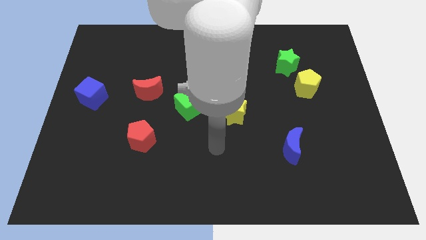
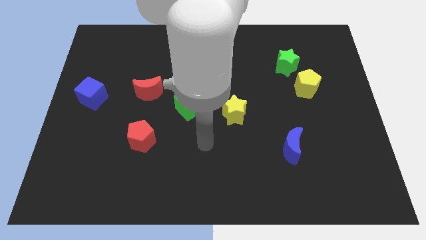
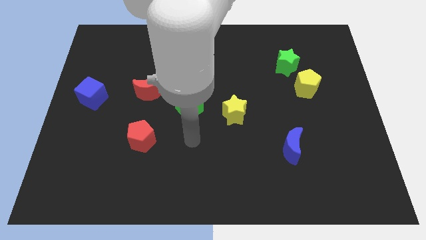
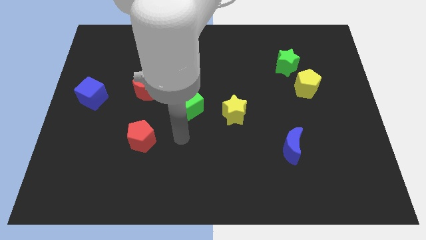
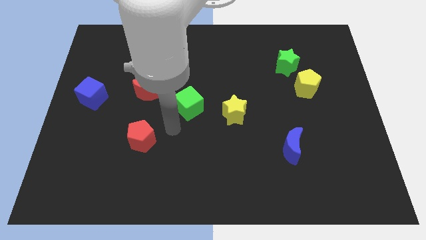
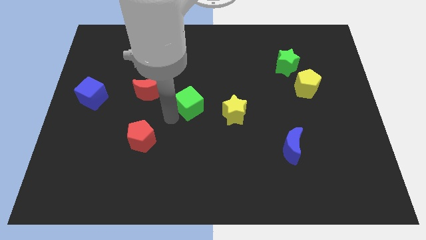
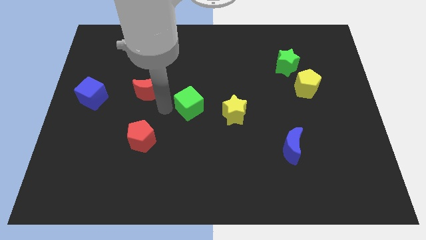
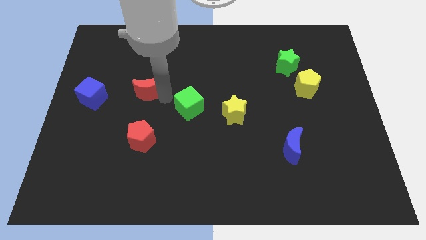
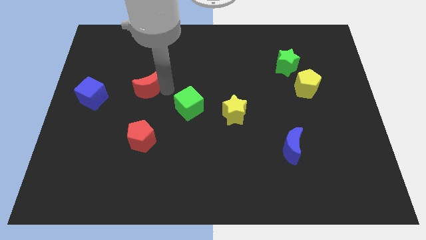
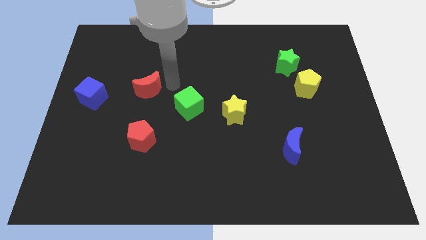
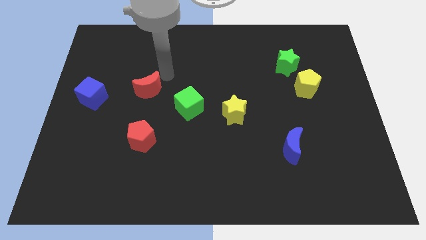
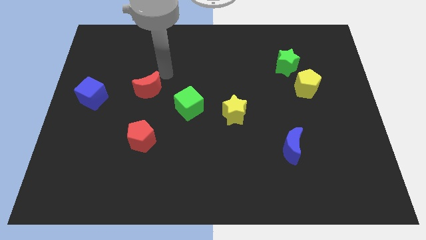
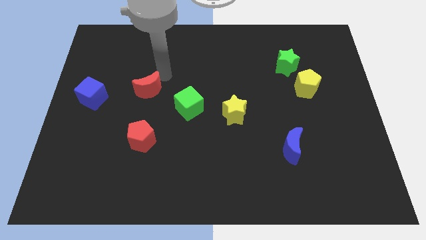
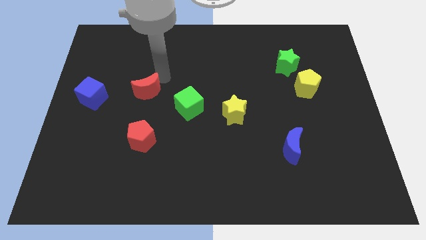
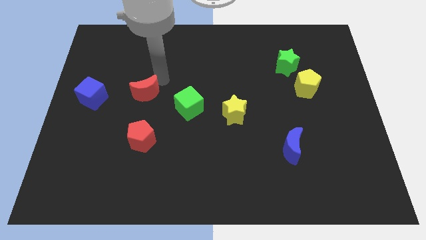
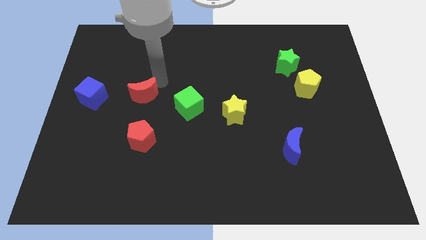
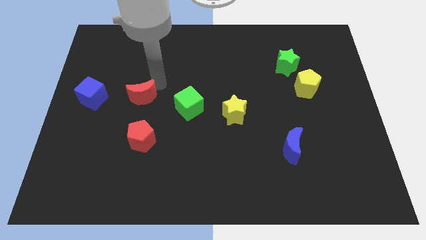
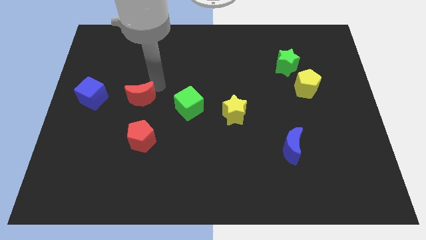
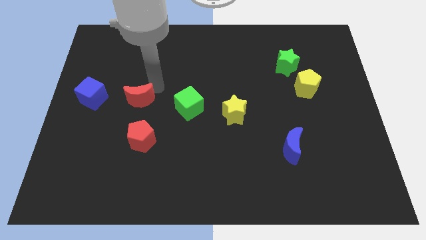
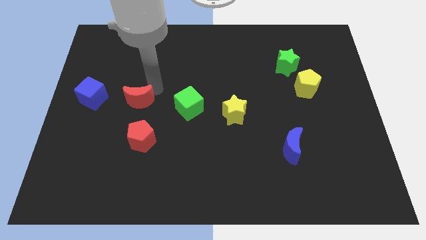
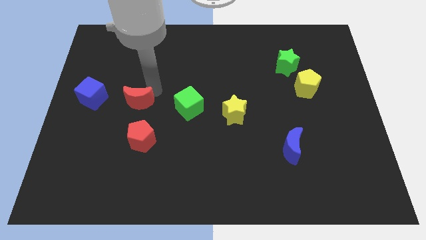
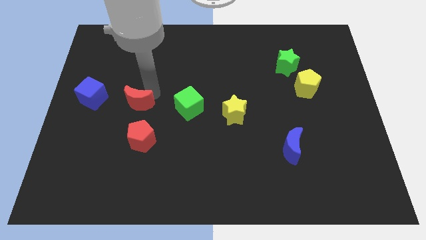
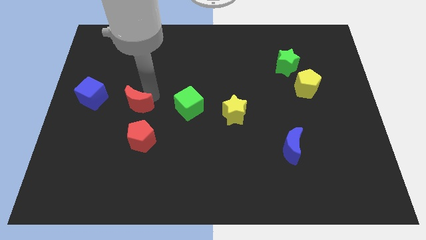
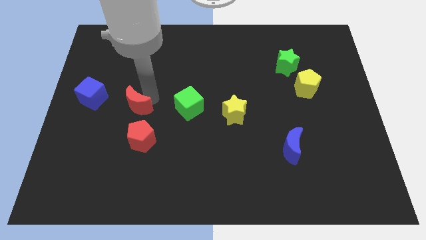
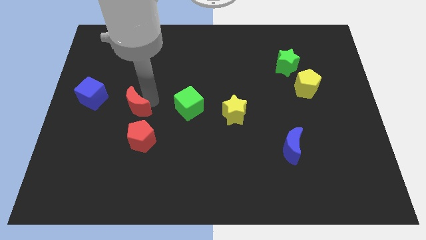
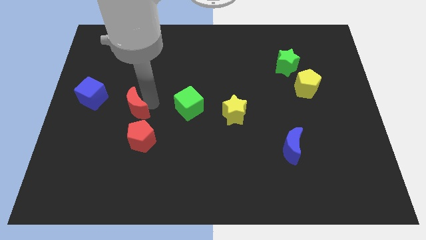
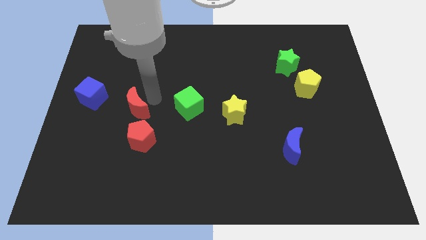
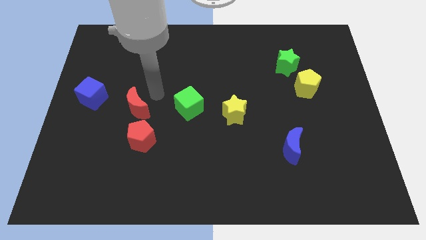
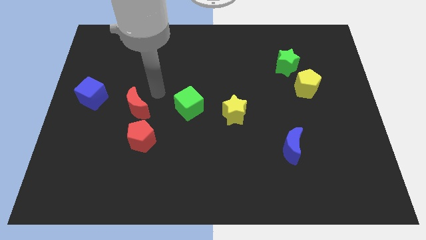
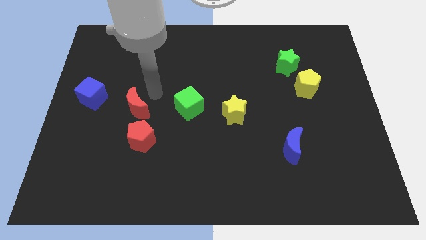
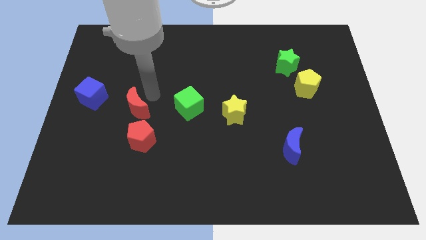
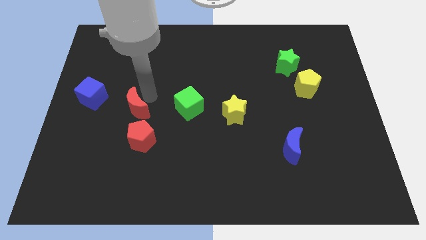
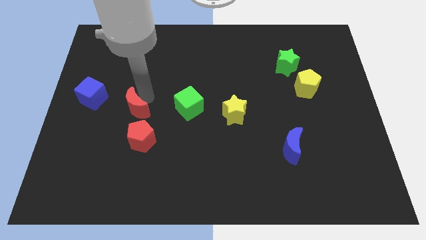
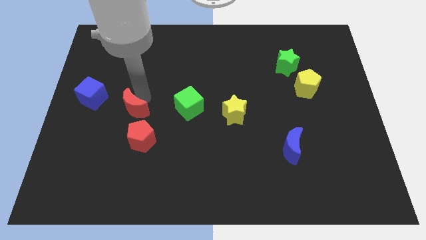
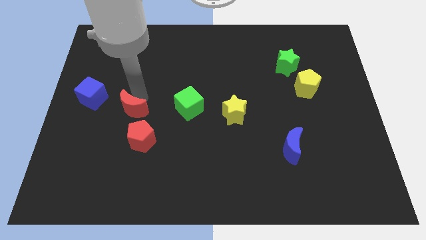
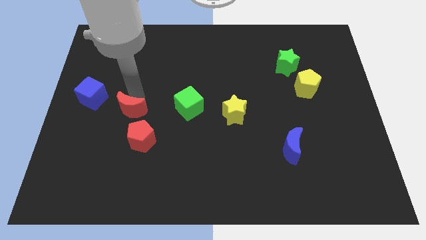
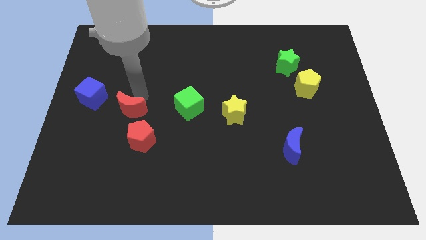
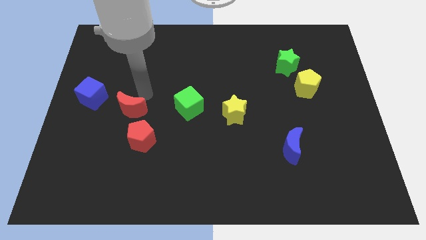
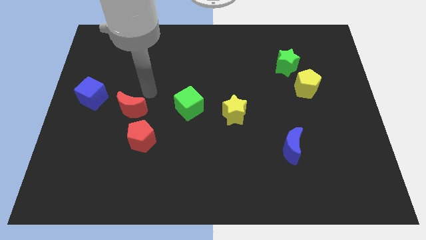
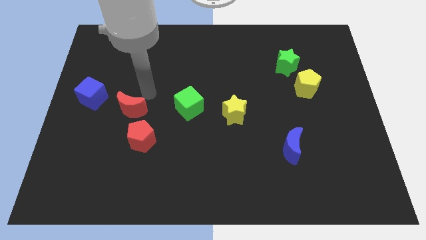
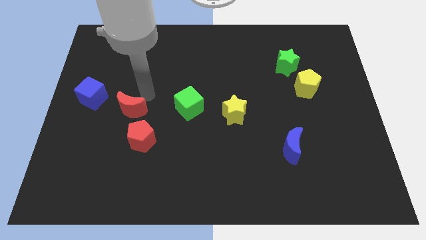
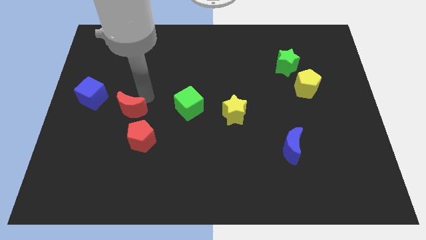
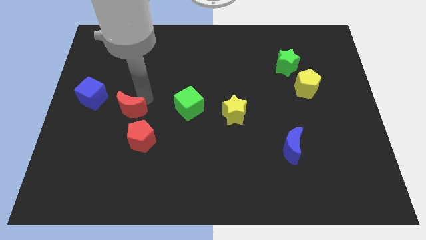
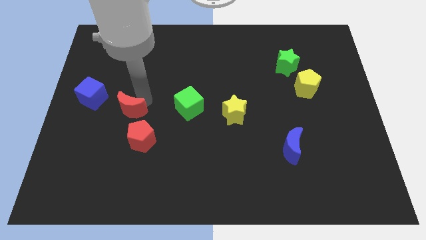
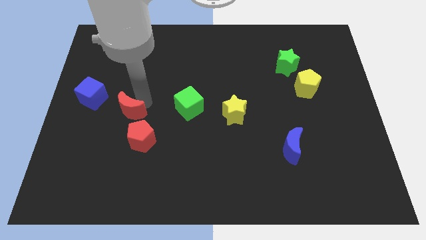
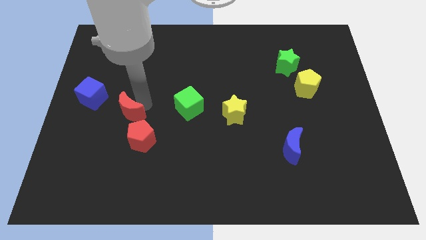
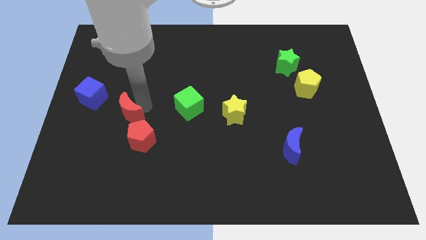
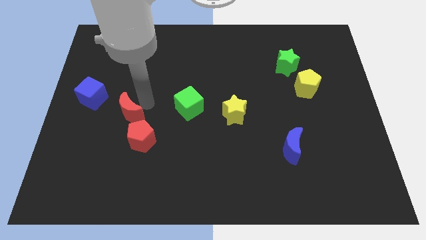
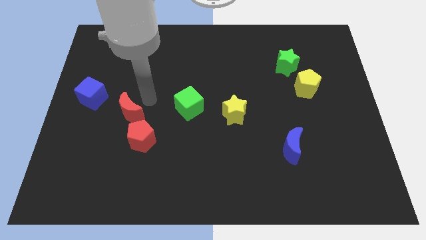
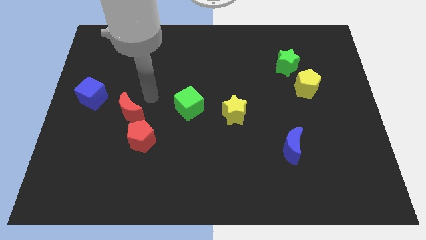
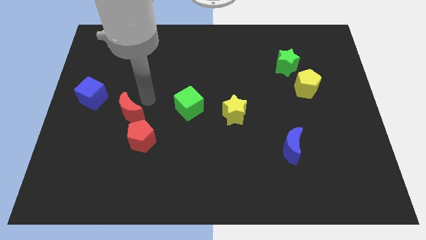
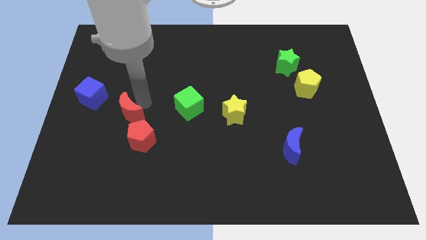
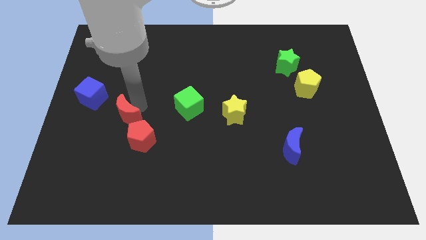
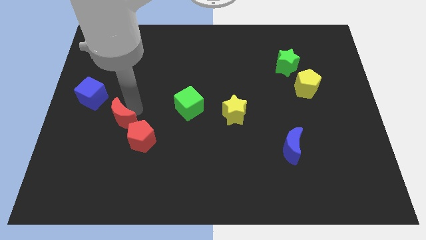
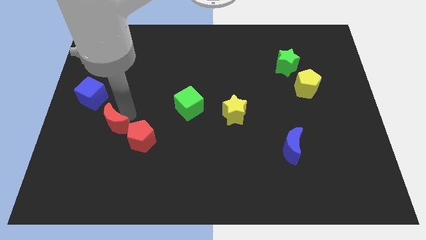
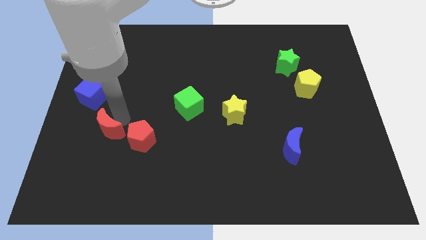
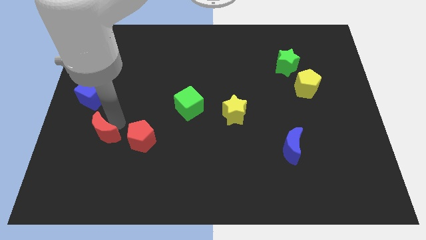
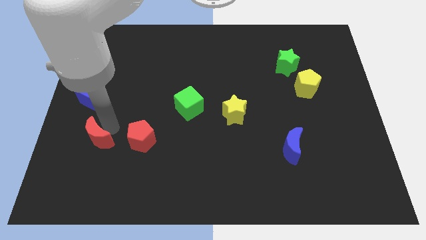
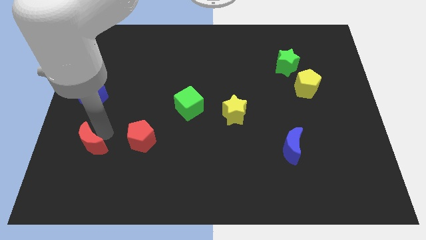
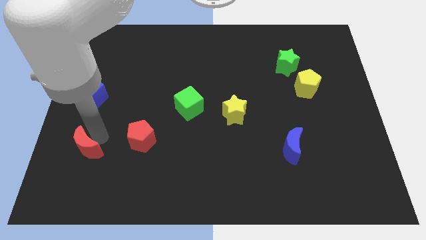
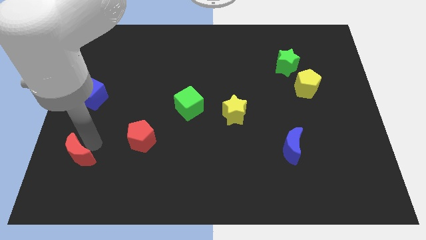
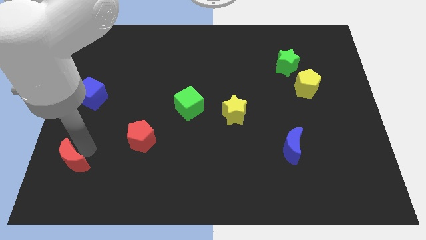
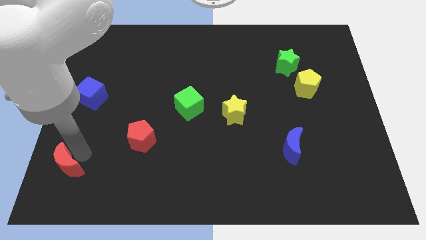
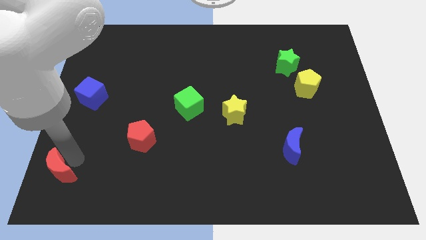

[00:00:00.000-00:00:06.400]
put the red moon to the bottom left
